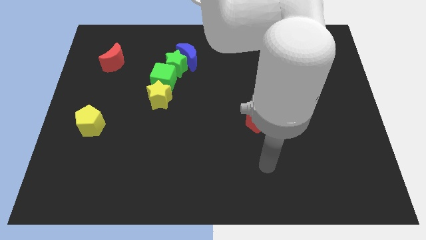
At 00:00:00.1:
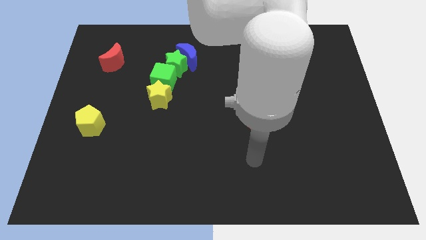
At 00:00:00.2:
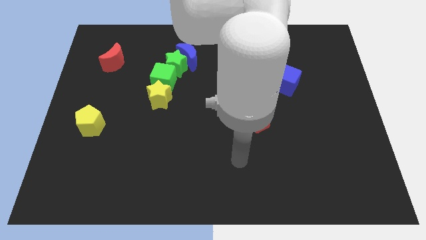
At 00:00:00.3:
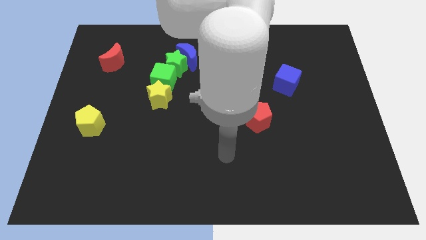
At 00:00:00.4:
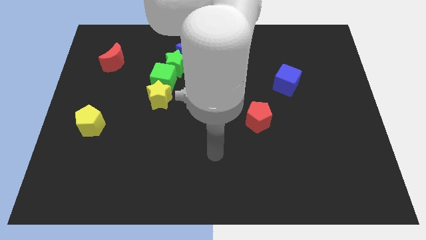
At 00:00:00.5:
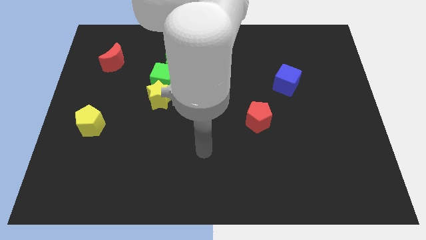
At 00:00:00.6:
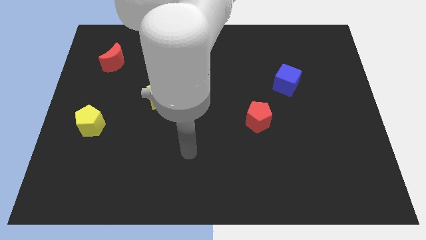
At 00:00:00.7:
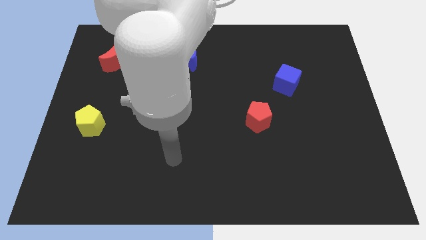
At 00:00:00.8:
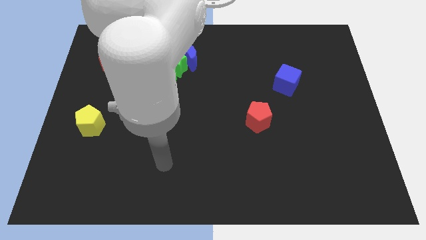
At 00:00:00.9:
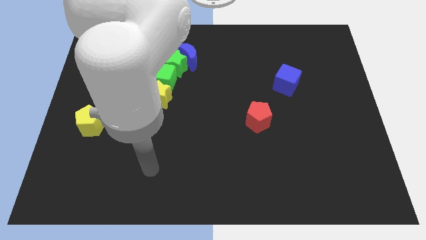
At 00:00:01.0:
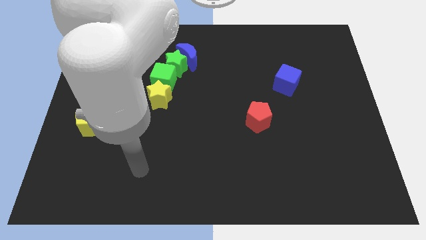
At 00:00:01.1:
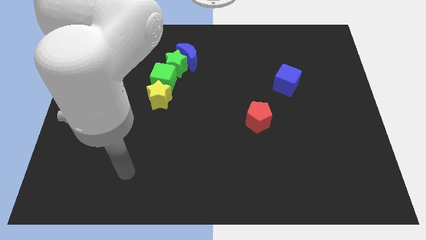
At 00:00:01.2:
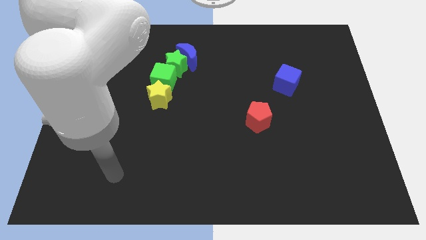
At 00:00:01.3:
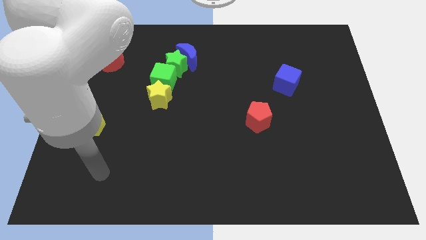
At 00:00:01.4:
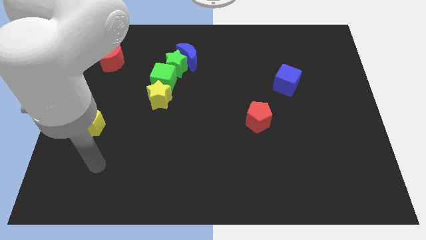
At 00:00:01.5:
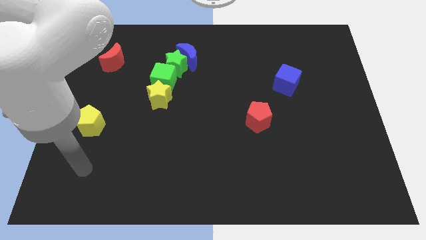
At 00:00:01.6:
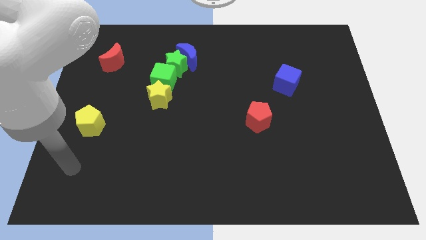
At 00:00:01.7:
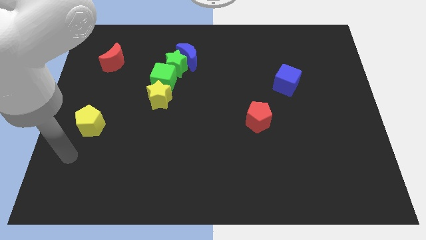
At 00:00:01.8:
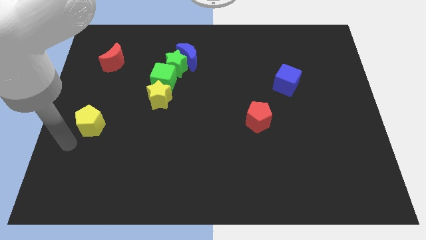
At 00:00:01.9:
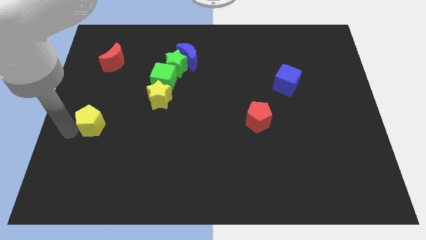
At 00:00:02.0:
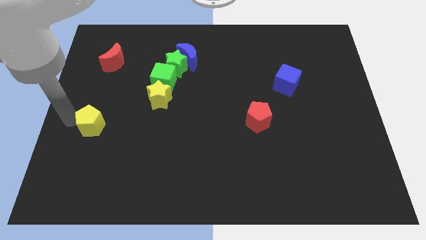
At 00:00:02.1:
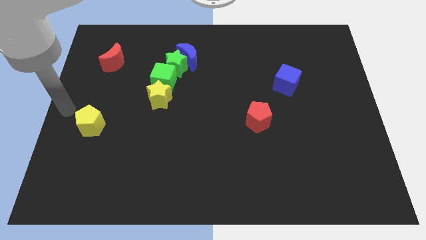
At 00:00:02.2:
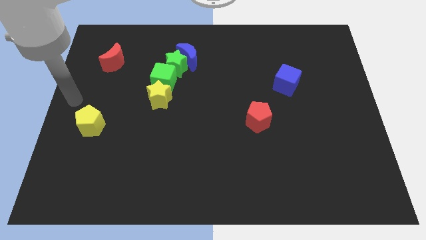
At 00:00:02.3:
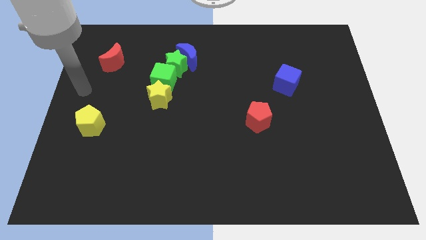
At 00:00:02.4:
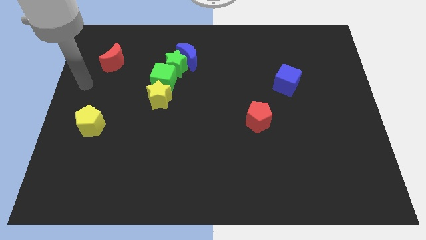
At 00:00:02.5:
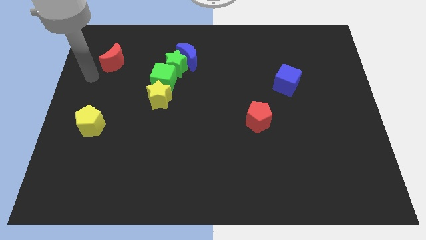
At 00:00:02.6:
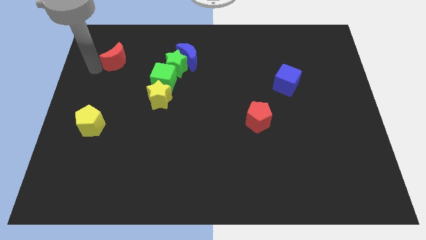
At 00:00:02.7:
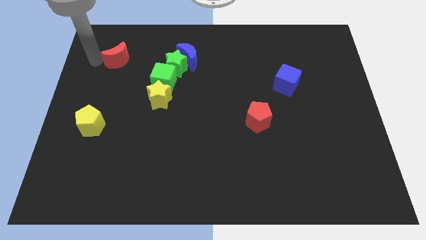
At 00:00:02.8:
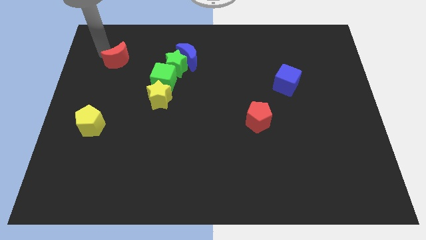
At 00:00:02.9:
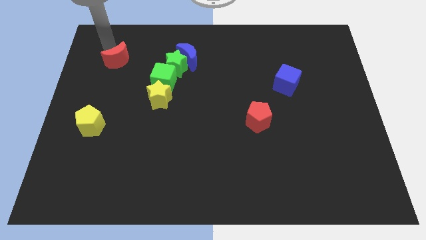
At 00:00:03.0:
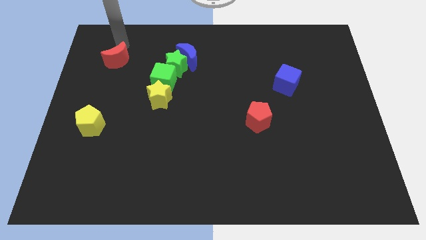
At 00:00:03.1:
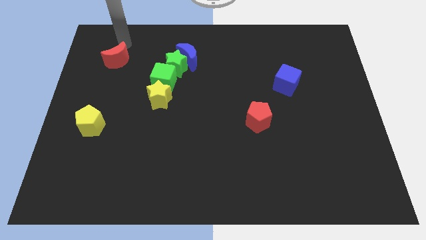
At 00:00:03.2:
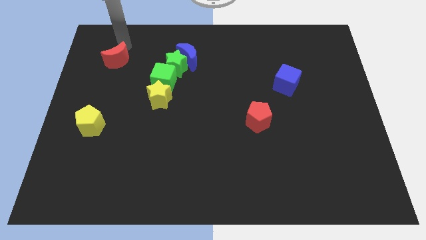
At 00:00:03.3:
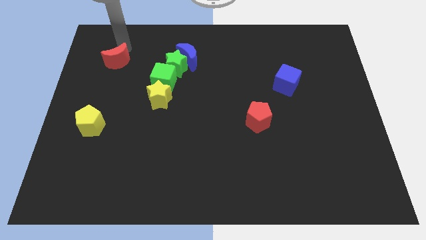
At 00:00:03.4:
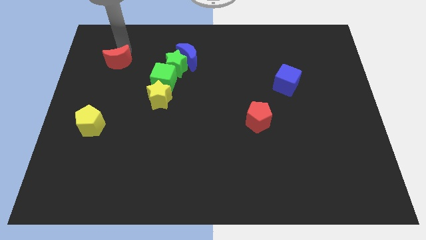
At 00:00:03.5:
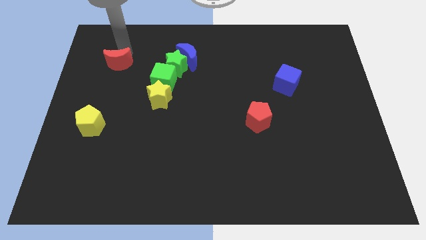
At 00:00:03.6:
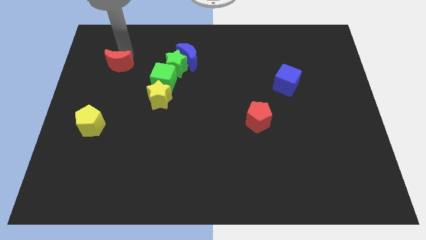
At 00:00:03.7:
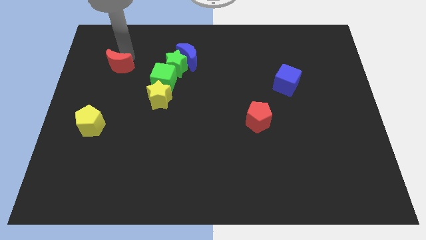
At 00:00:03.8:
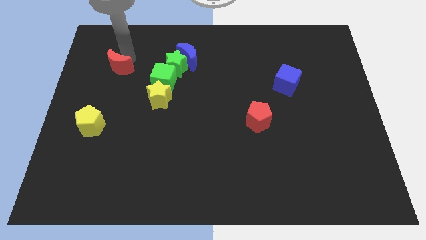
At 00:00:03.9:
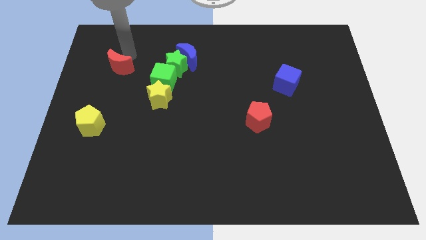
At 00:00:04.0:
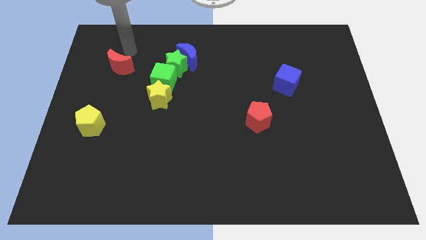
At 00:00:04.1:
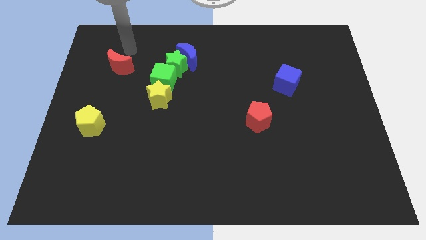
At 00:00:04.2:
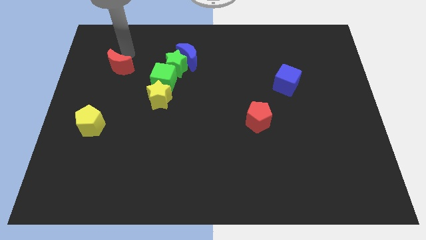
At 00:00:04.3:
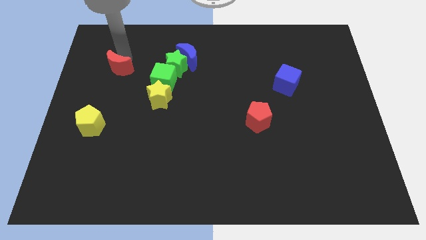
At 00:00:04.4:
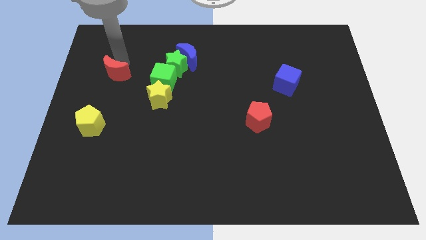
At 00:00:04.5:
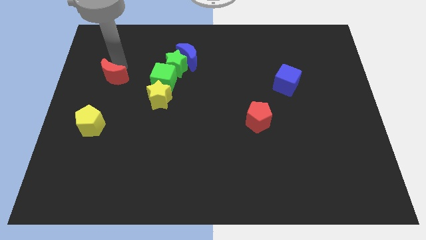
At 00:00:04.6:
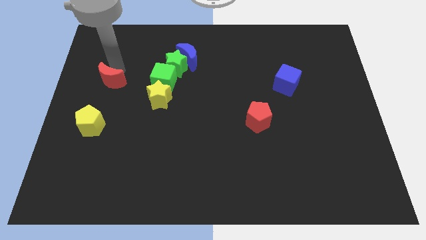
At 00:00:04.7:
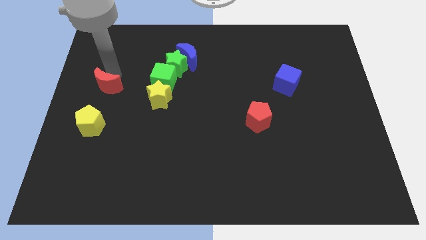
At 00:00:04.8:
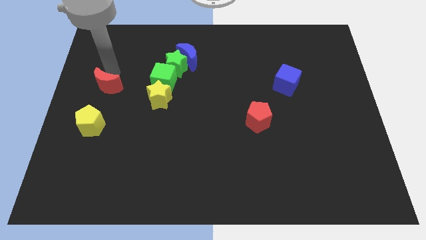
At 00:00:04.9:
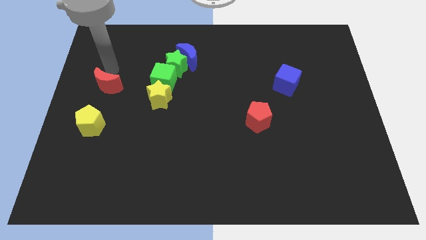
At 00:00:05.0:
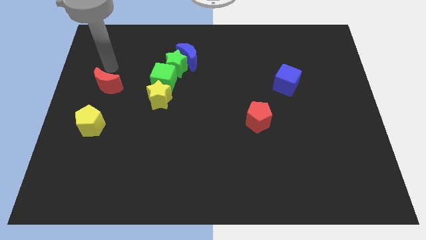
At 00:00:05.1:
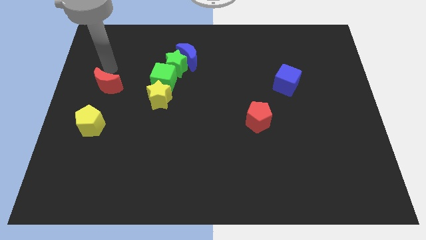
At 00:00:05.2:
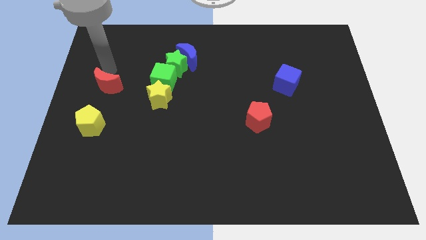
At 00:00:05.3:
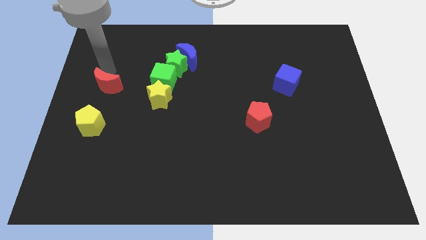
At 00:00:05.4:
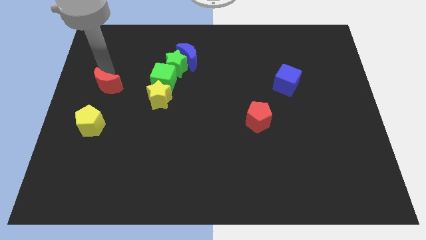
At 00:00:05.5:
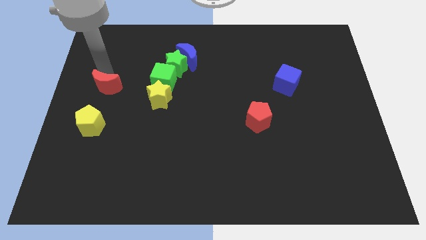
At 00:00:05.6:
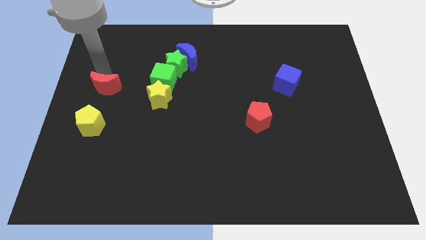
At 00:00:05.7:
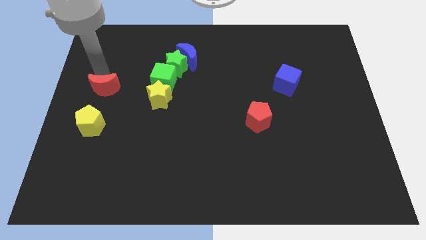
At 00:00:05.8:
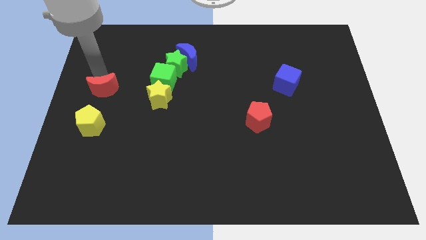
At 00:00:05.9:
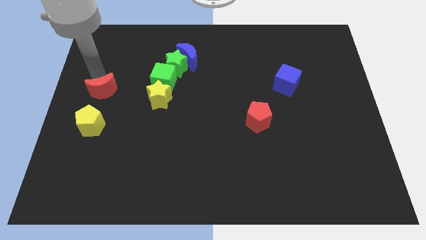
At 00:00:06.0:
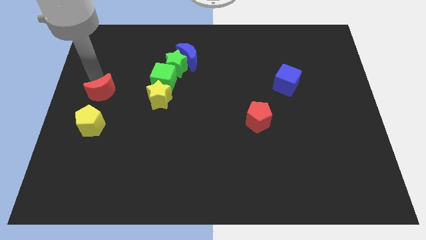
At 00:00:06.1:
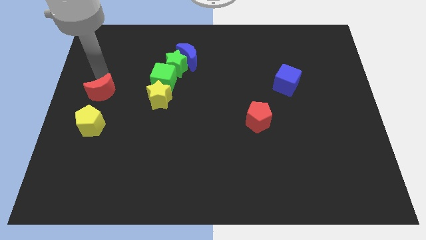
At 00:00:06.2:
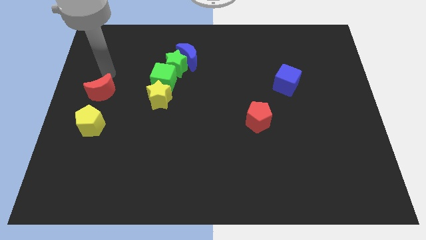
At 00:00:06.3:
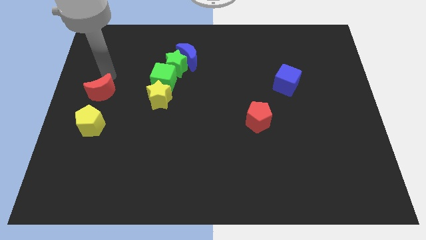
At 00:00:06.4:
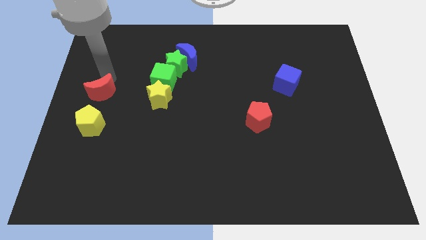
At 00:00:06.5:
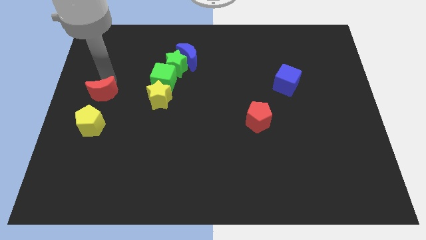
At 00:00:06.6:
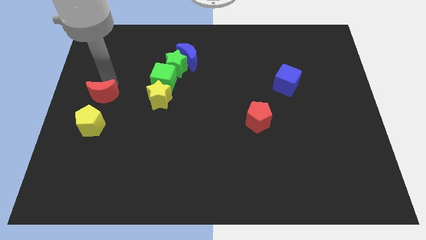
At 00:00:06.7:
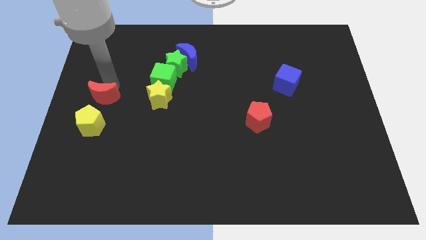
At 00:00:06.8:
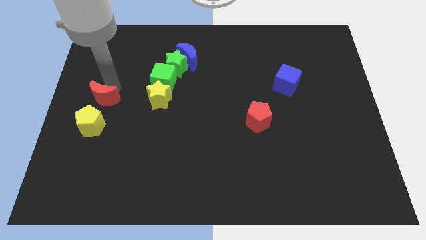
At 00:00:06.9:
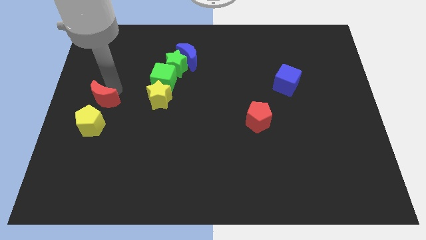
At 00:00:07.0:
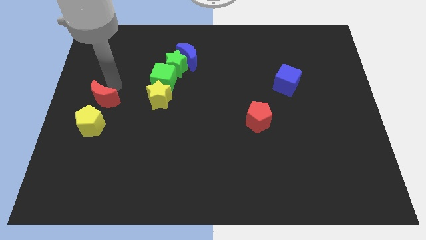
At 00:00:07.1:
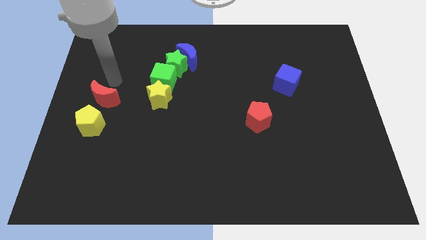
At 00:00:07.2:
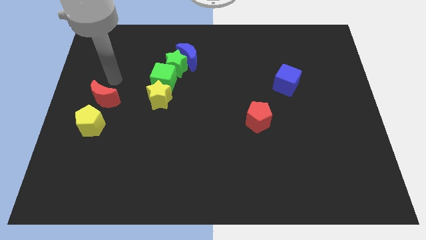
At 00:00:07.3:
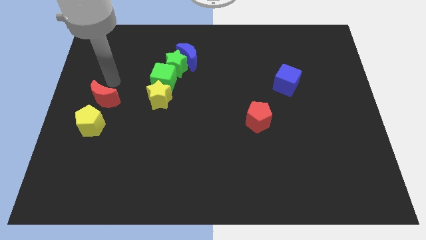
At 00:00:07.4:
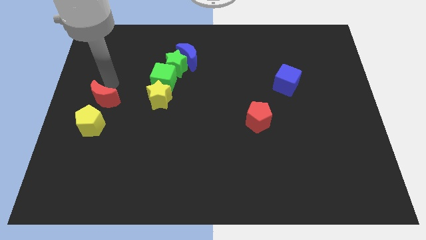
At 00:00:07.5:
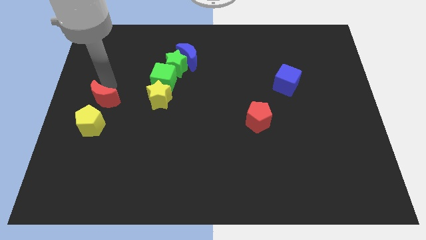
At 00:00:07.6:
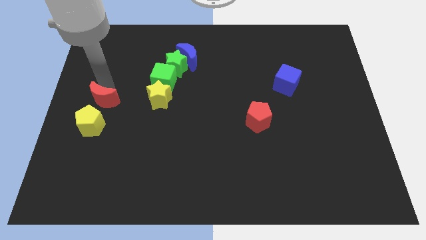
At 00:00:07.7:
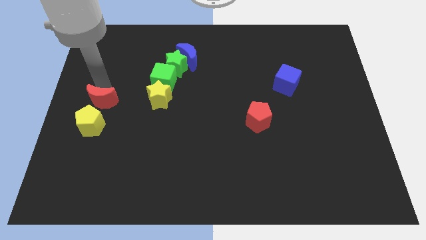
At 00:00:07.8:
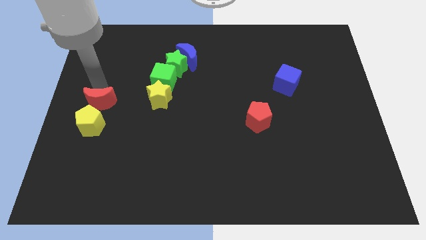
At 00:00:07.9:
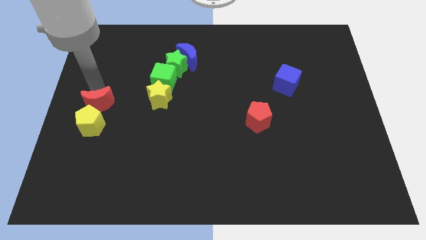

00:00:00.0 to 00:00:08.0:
slide the red moon towards the yellow pentagon
